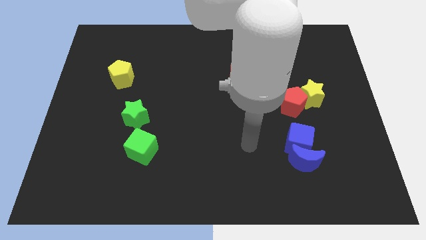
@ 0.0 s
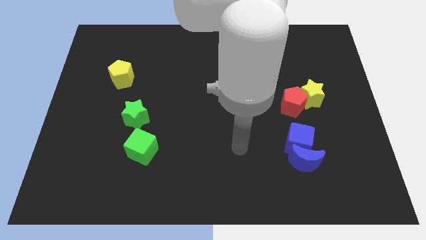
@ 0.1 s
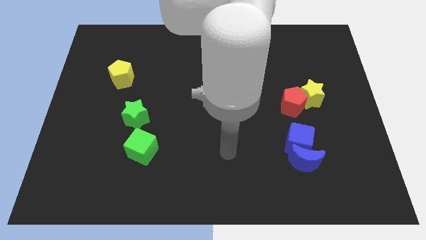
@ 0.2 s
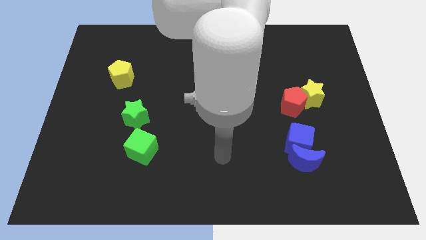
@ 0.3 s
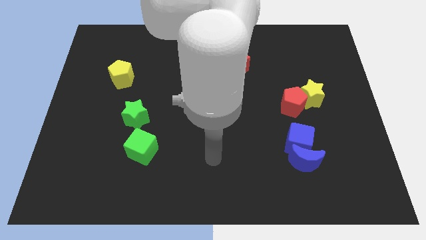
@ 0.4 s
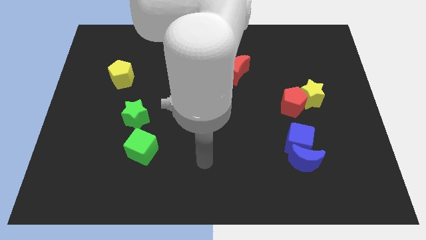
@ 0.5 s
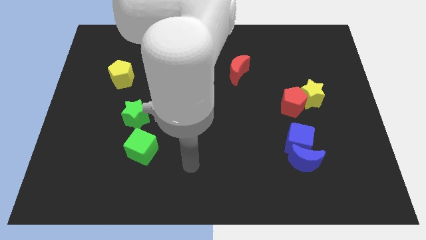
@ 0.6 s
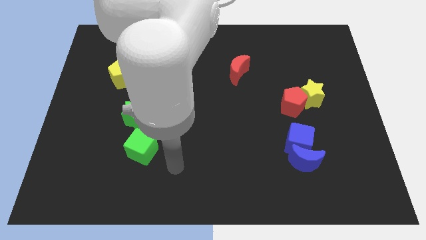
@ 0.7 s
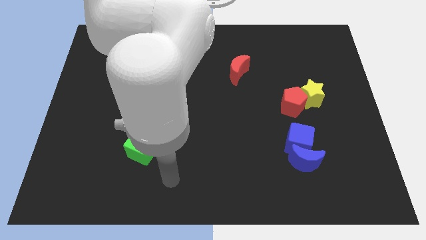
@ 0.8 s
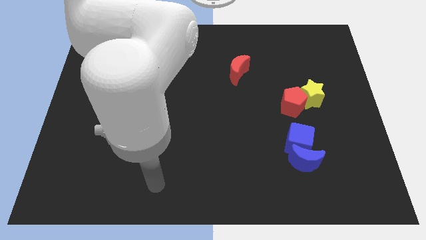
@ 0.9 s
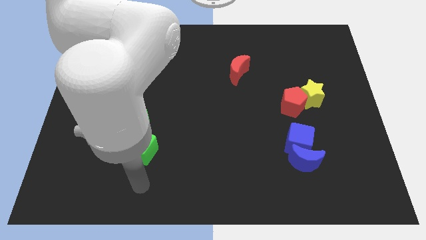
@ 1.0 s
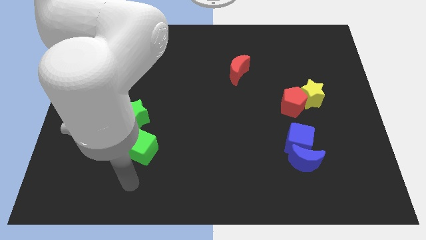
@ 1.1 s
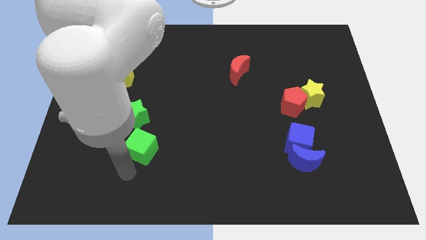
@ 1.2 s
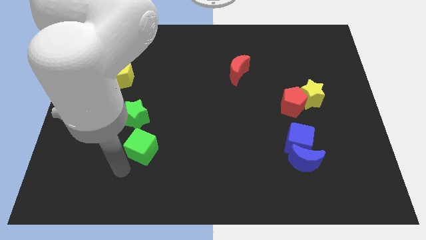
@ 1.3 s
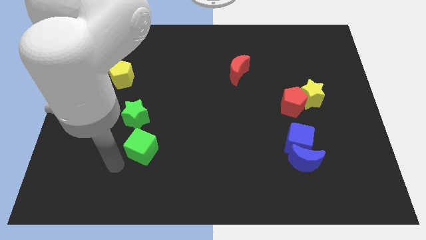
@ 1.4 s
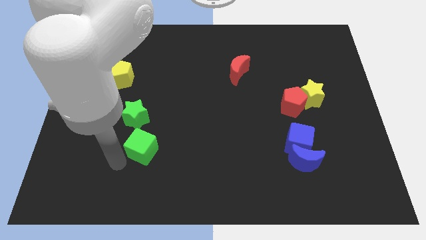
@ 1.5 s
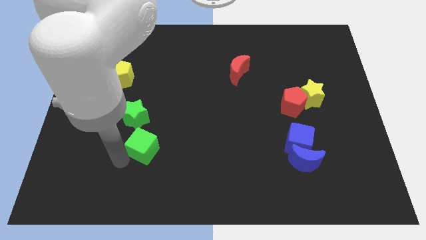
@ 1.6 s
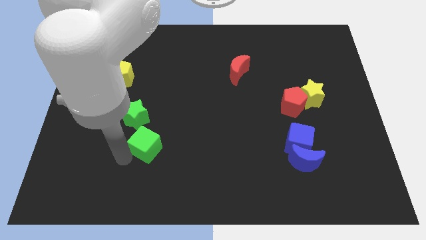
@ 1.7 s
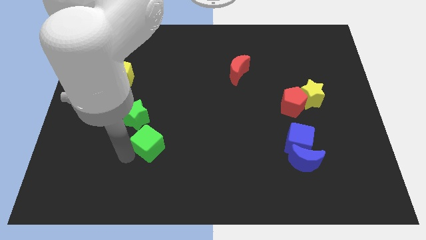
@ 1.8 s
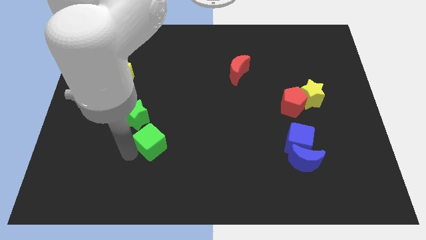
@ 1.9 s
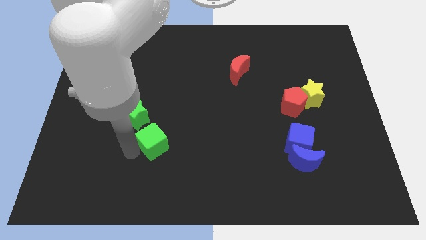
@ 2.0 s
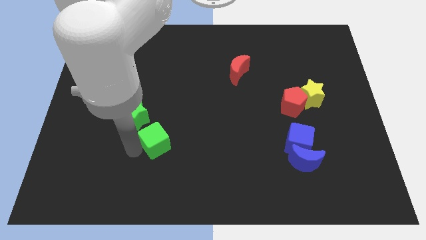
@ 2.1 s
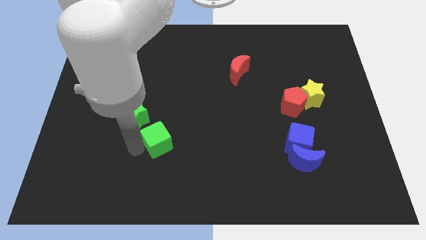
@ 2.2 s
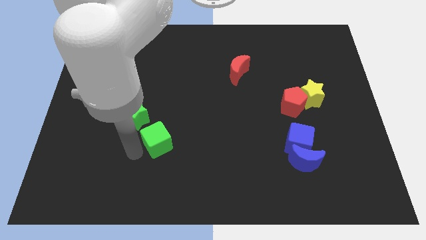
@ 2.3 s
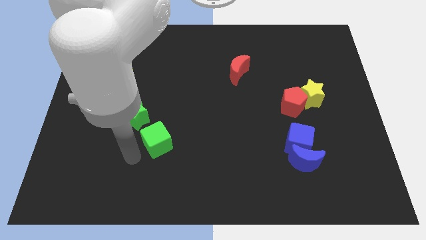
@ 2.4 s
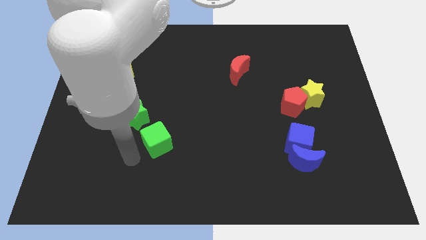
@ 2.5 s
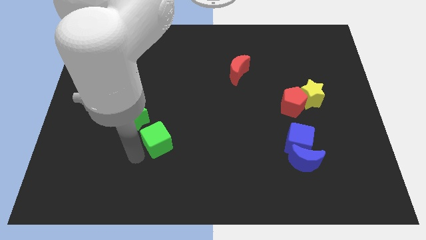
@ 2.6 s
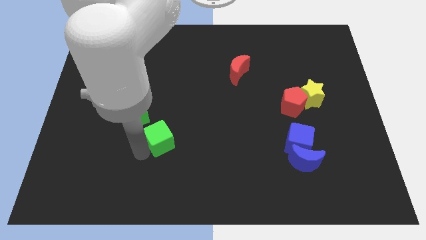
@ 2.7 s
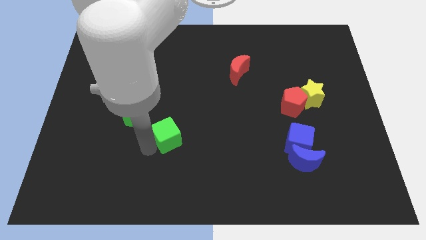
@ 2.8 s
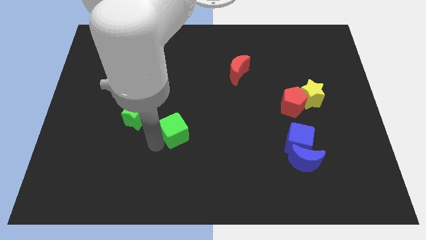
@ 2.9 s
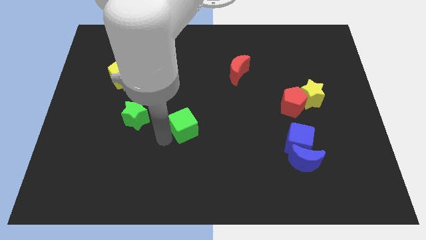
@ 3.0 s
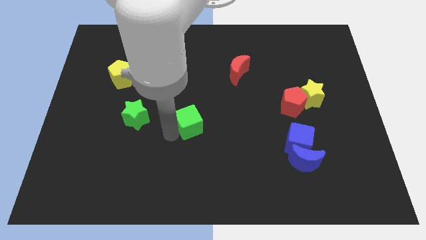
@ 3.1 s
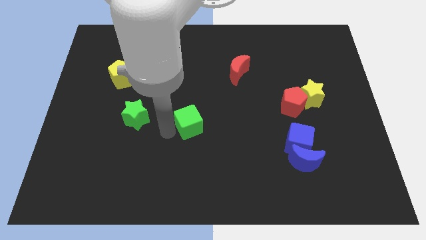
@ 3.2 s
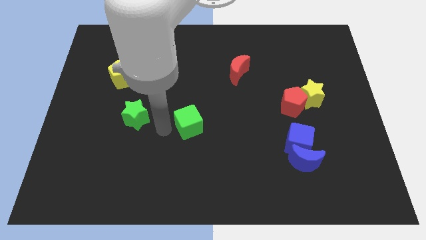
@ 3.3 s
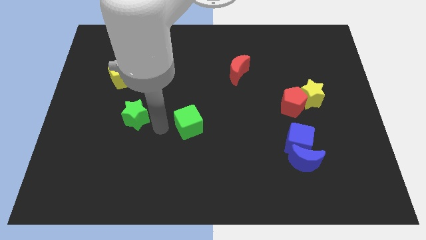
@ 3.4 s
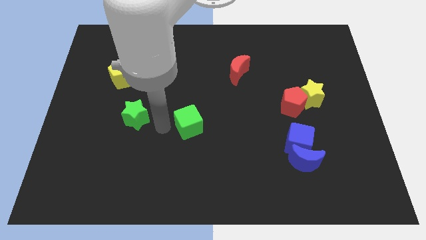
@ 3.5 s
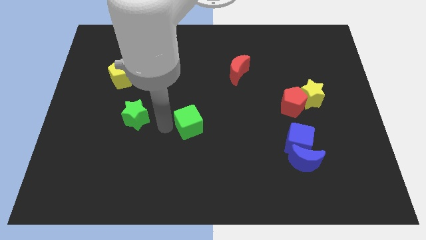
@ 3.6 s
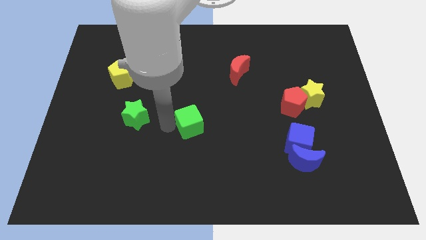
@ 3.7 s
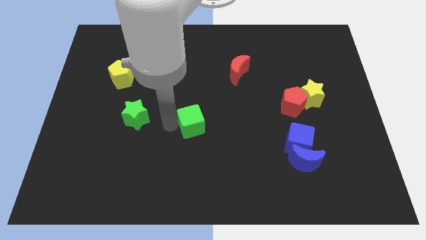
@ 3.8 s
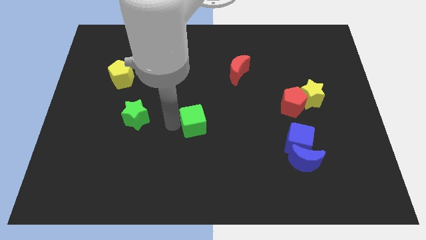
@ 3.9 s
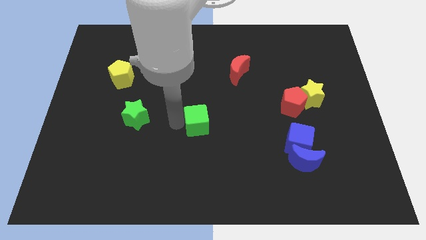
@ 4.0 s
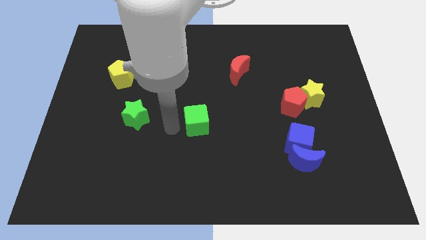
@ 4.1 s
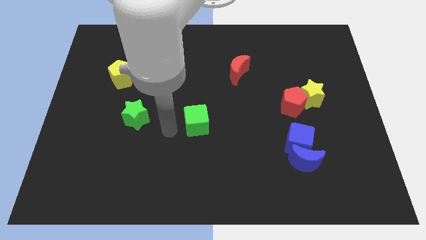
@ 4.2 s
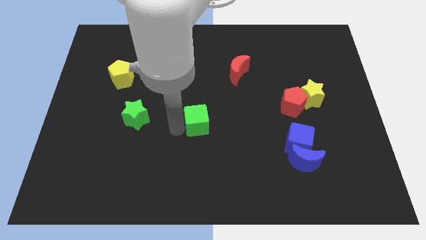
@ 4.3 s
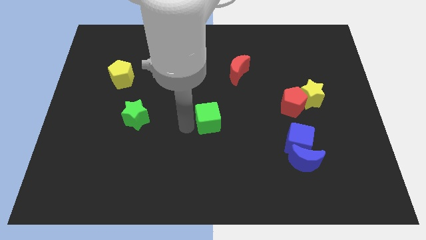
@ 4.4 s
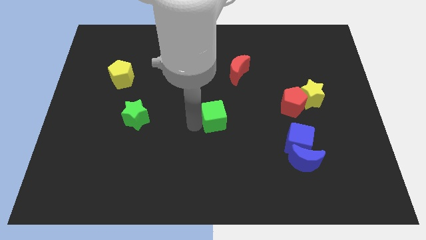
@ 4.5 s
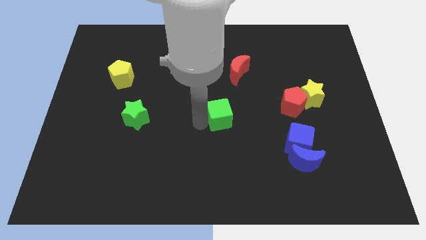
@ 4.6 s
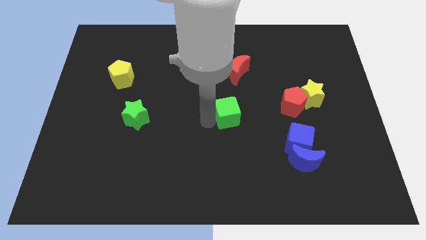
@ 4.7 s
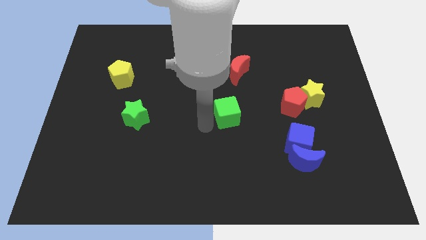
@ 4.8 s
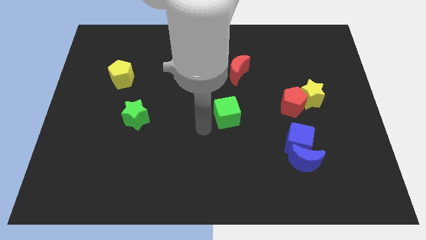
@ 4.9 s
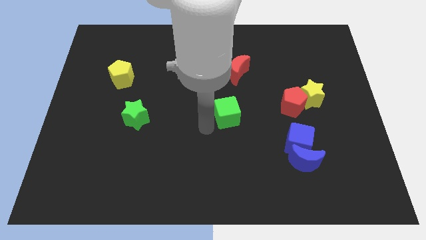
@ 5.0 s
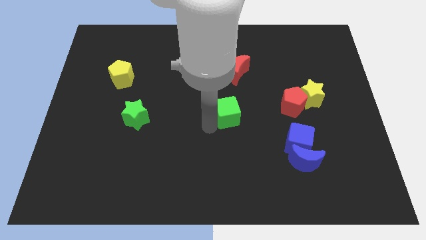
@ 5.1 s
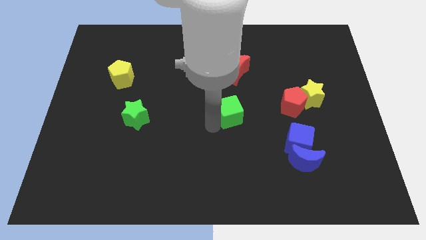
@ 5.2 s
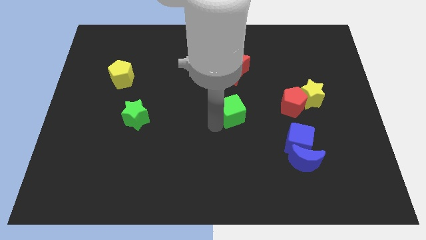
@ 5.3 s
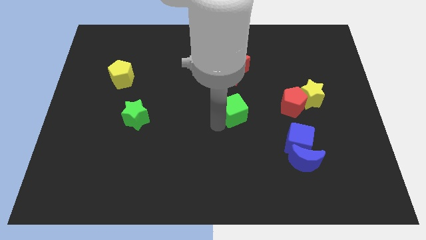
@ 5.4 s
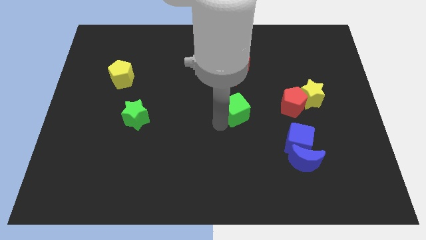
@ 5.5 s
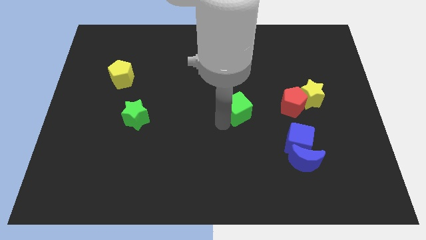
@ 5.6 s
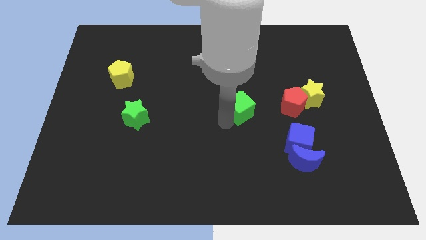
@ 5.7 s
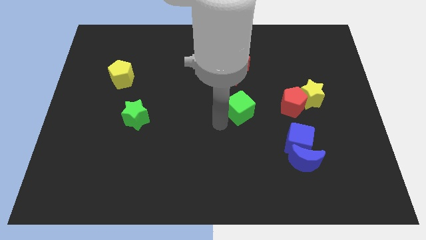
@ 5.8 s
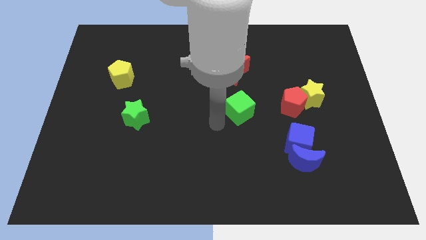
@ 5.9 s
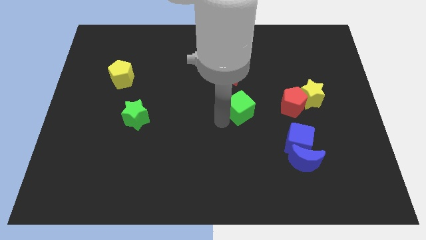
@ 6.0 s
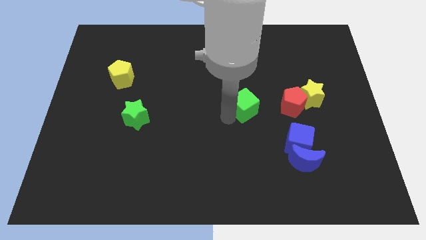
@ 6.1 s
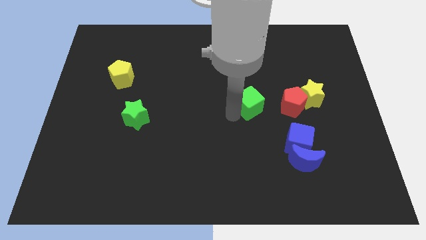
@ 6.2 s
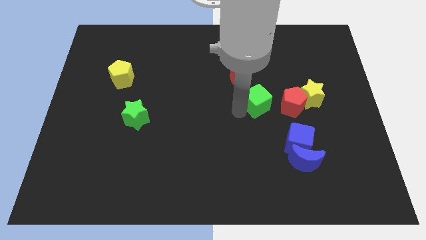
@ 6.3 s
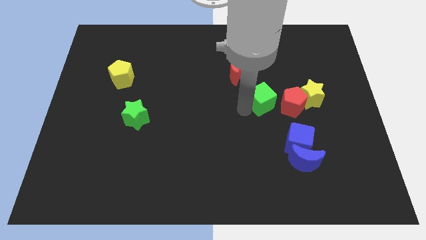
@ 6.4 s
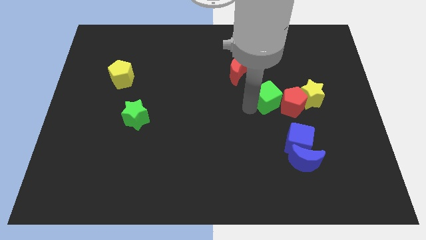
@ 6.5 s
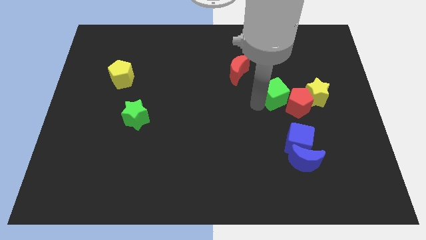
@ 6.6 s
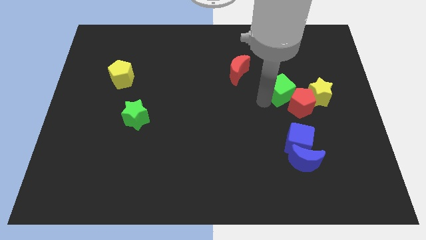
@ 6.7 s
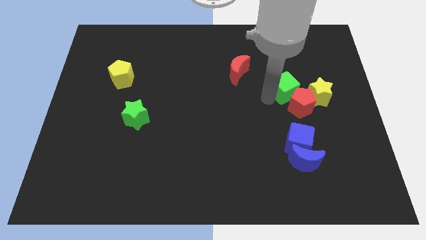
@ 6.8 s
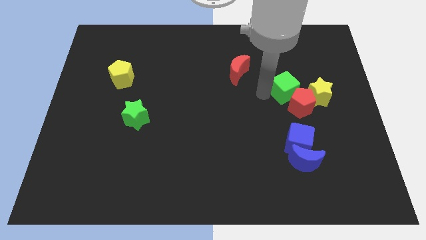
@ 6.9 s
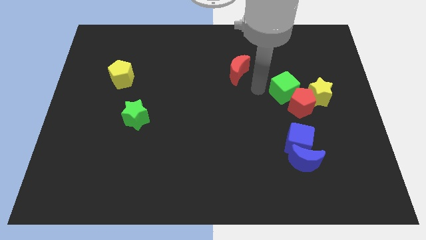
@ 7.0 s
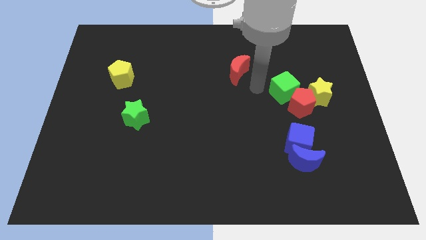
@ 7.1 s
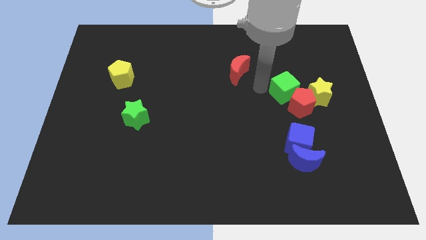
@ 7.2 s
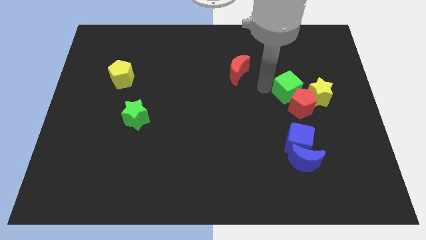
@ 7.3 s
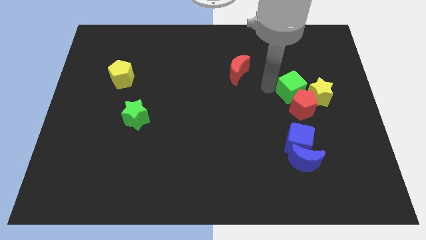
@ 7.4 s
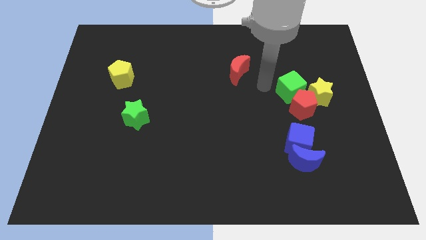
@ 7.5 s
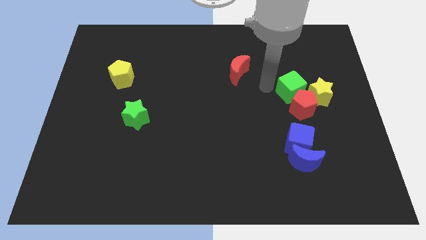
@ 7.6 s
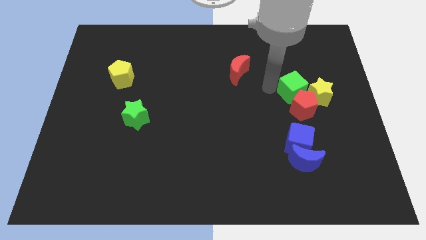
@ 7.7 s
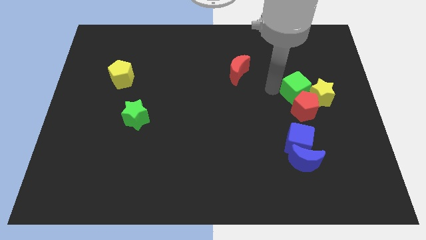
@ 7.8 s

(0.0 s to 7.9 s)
put the green cube towards the yellow star

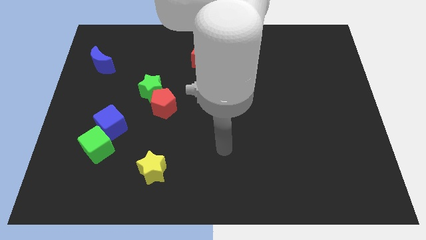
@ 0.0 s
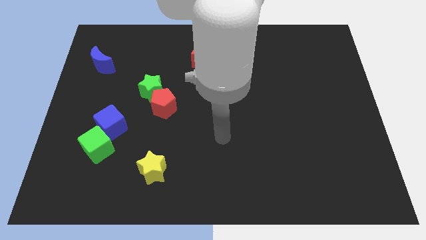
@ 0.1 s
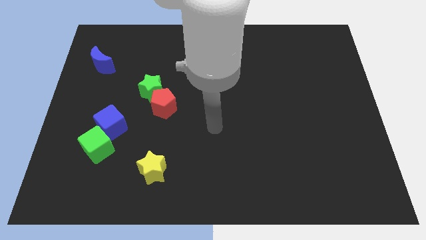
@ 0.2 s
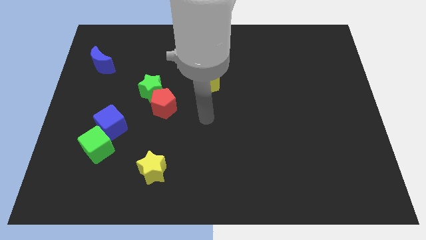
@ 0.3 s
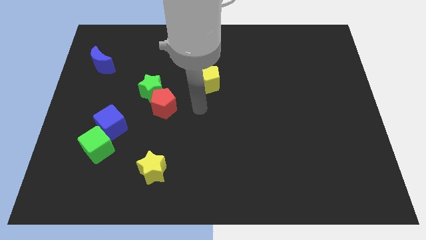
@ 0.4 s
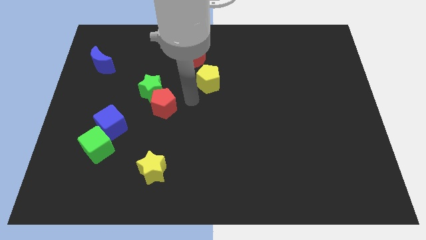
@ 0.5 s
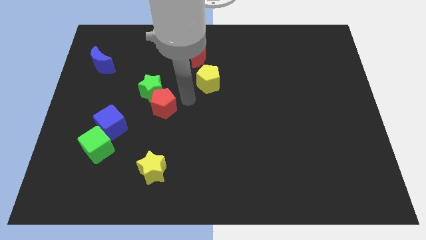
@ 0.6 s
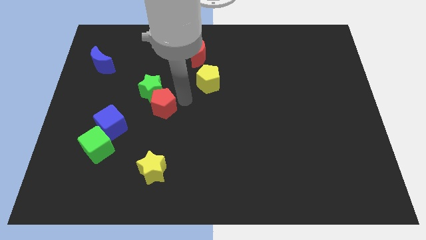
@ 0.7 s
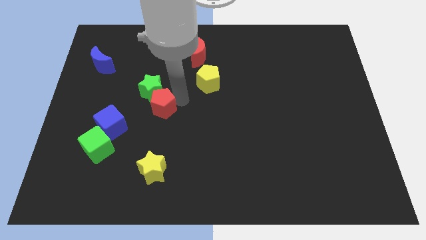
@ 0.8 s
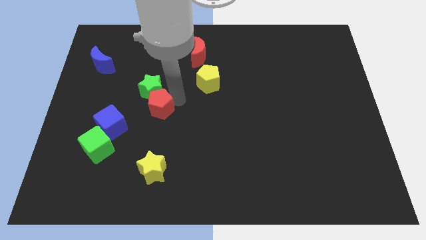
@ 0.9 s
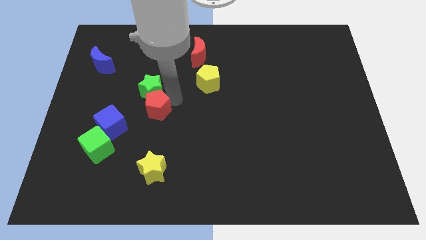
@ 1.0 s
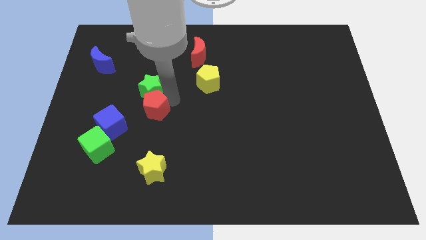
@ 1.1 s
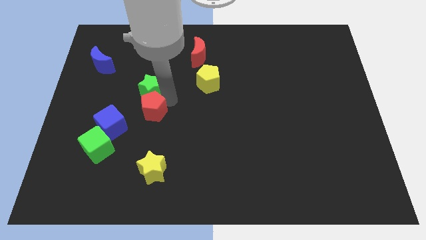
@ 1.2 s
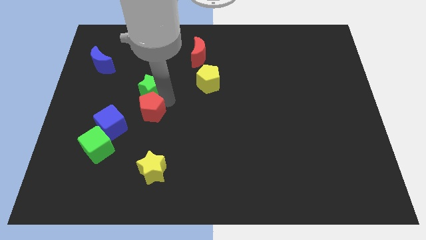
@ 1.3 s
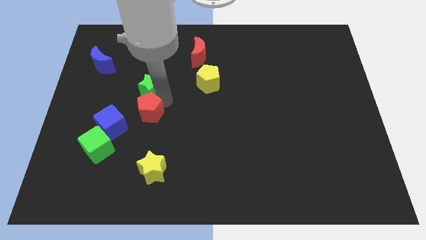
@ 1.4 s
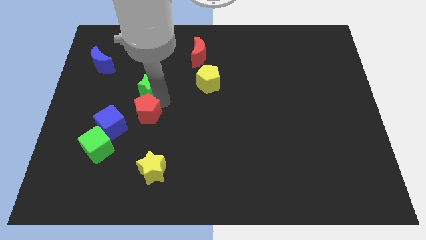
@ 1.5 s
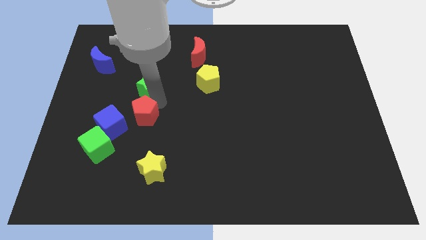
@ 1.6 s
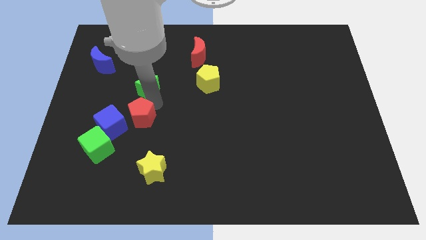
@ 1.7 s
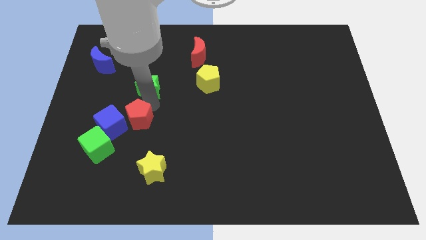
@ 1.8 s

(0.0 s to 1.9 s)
move the red pentagon towards the blue cube
